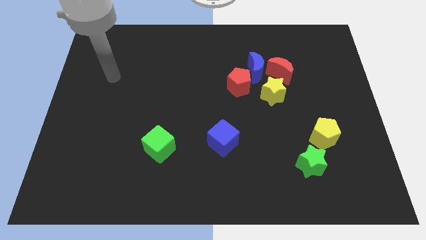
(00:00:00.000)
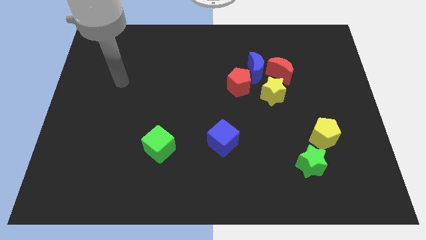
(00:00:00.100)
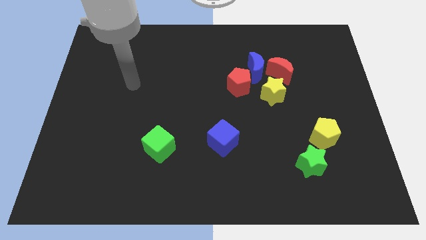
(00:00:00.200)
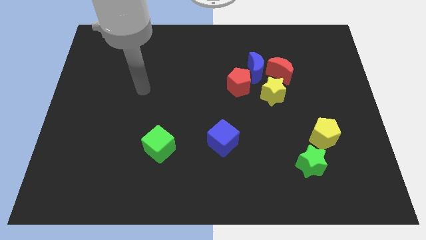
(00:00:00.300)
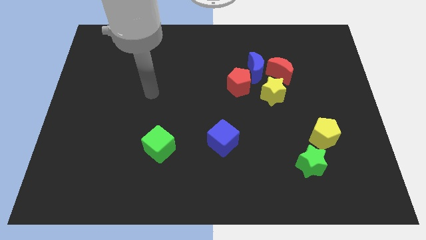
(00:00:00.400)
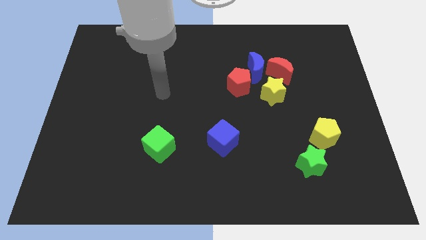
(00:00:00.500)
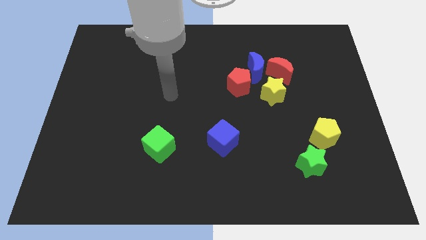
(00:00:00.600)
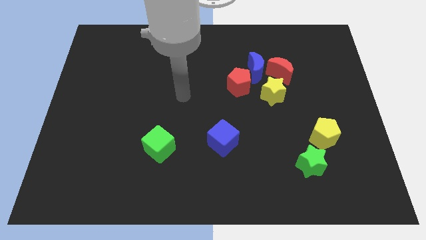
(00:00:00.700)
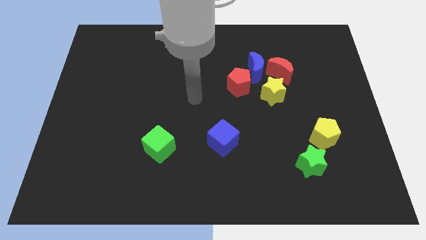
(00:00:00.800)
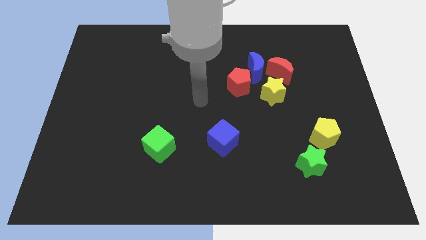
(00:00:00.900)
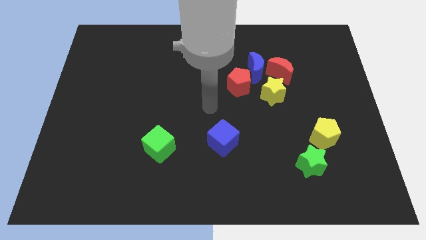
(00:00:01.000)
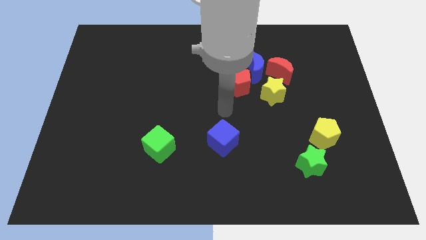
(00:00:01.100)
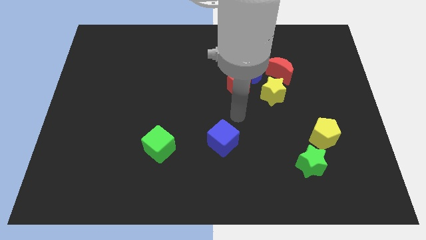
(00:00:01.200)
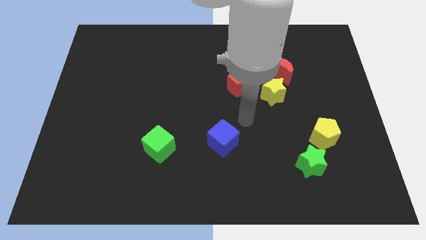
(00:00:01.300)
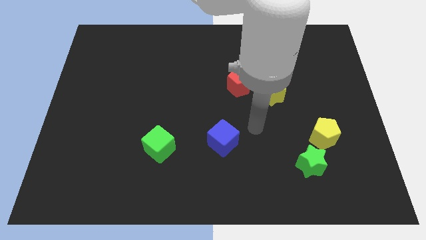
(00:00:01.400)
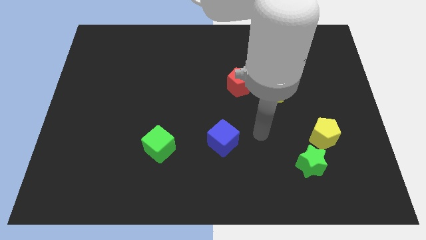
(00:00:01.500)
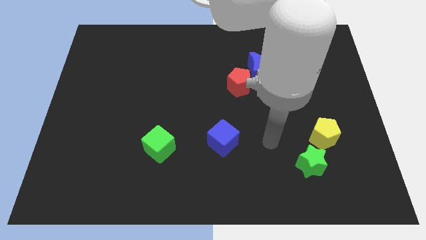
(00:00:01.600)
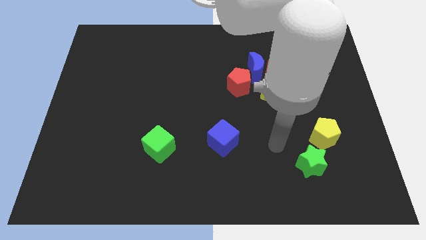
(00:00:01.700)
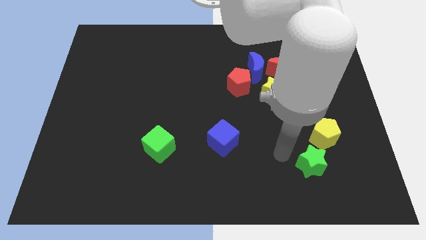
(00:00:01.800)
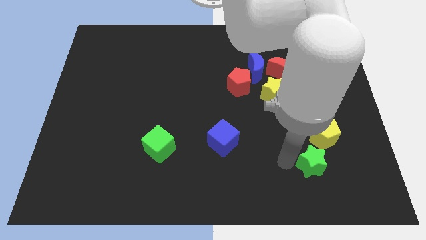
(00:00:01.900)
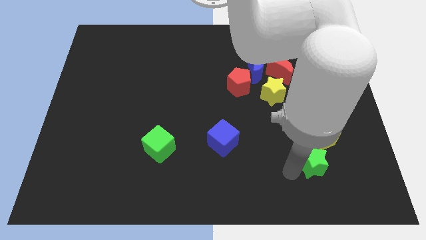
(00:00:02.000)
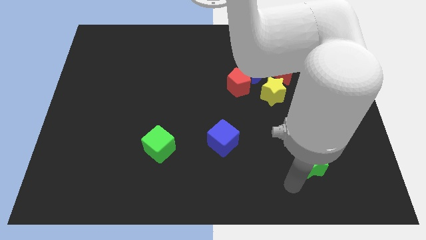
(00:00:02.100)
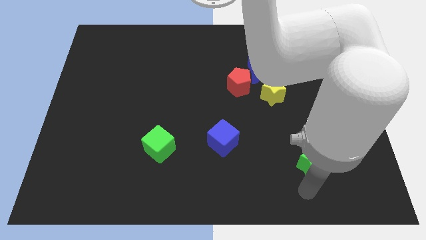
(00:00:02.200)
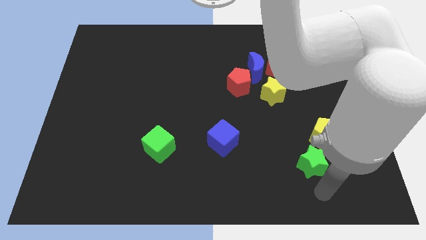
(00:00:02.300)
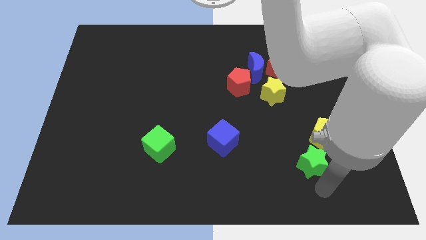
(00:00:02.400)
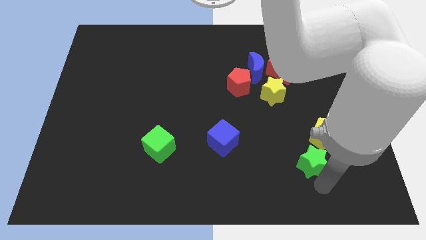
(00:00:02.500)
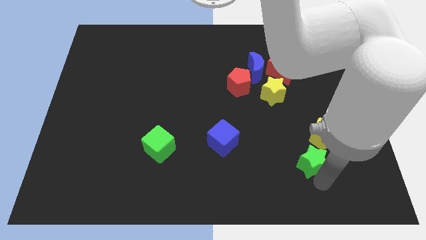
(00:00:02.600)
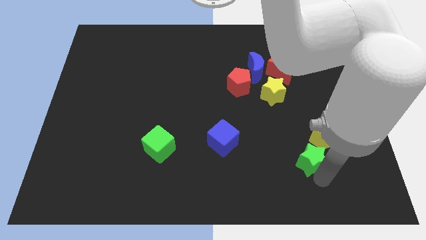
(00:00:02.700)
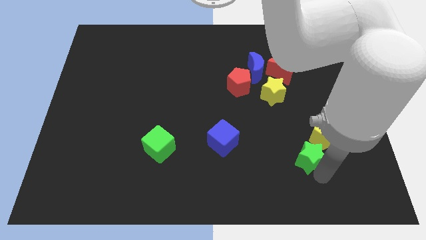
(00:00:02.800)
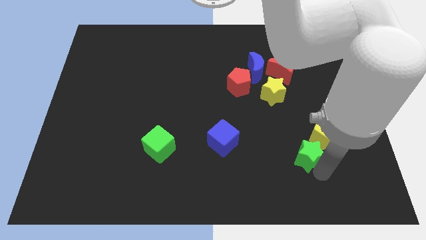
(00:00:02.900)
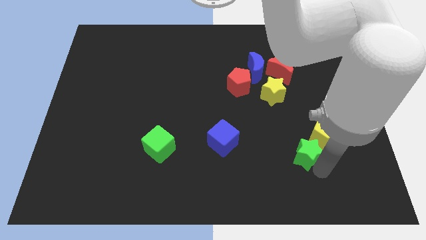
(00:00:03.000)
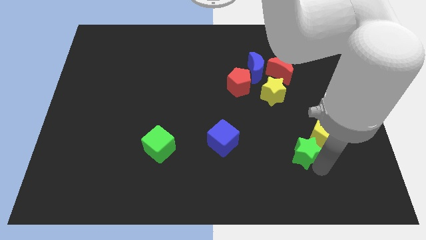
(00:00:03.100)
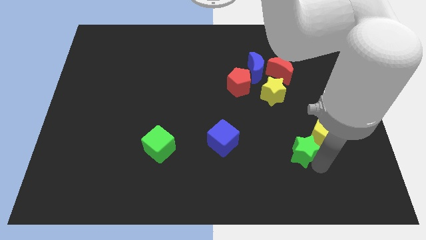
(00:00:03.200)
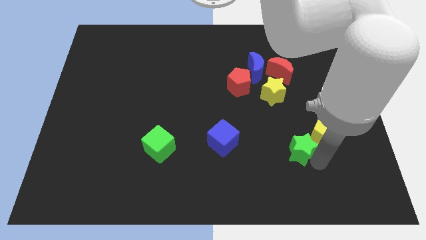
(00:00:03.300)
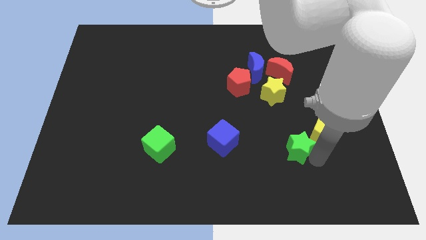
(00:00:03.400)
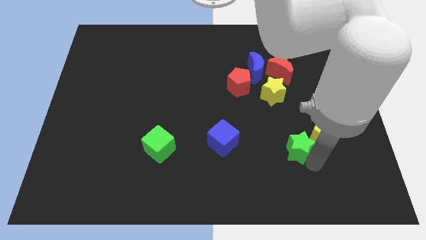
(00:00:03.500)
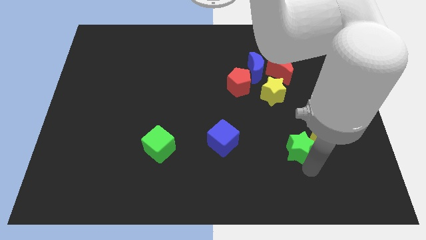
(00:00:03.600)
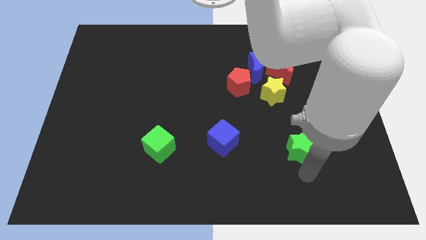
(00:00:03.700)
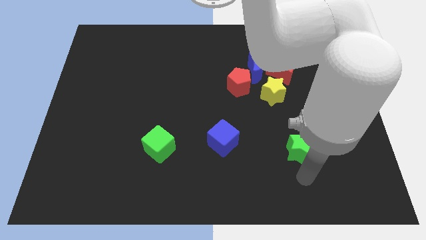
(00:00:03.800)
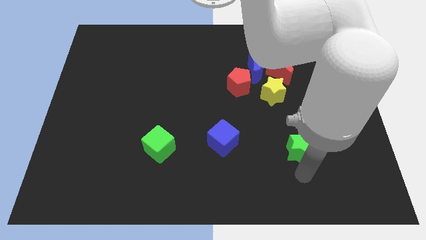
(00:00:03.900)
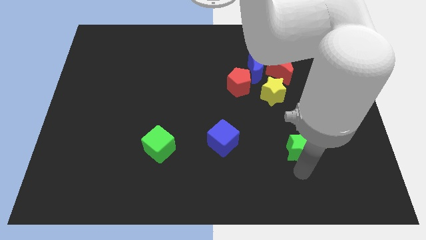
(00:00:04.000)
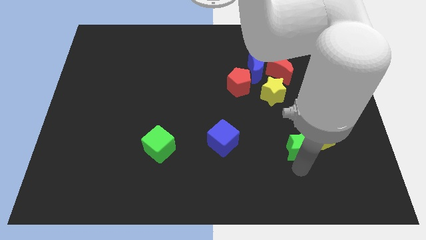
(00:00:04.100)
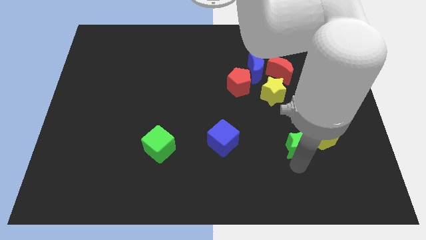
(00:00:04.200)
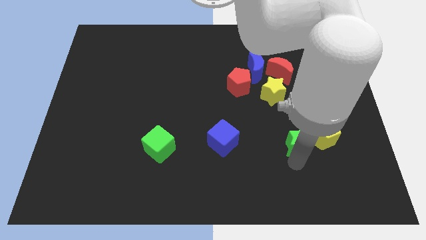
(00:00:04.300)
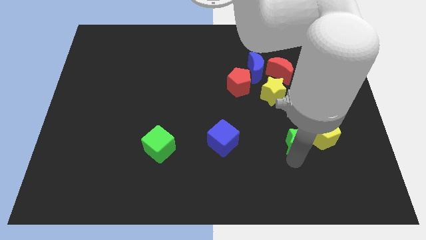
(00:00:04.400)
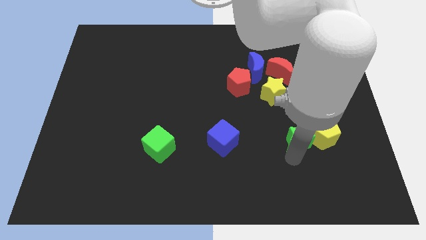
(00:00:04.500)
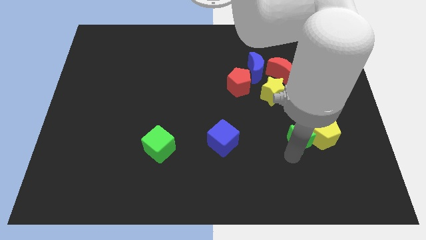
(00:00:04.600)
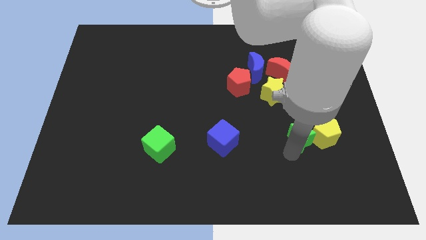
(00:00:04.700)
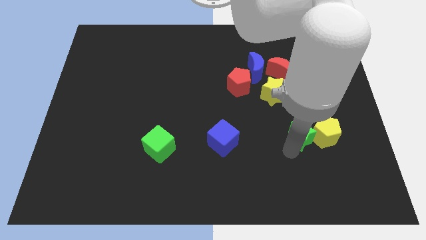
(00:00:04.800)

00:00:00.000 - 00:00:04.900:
move the green star somewhat upwards

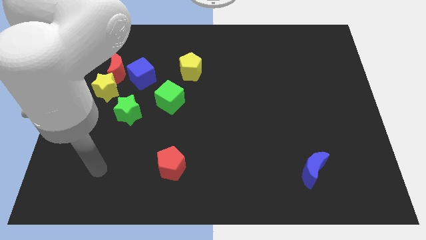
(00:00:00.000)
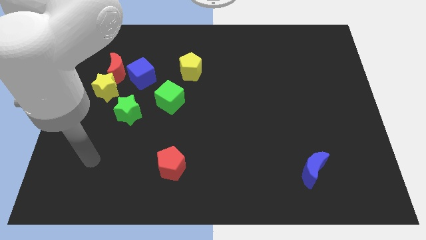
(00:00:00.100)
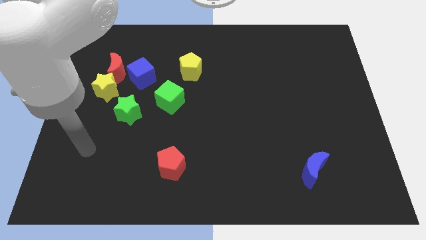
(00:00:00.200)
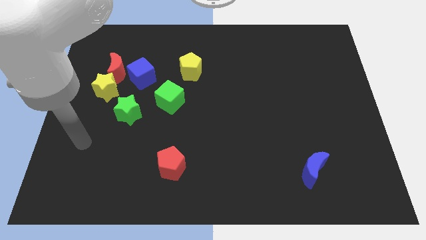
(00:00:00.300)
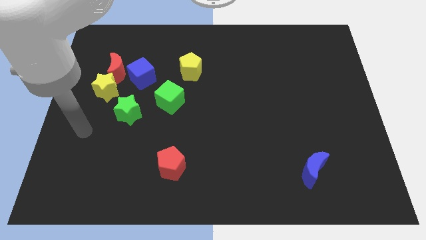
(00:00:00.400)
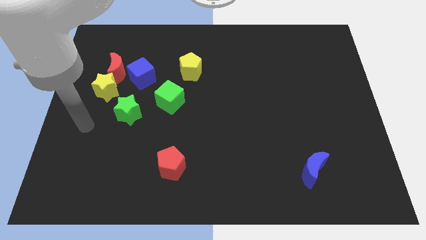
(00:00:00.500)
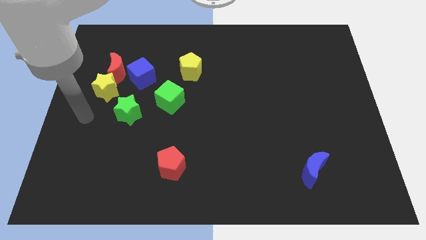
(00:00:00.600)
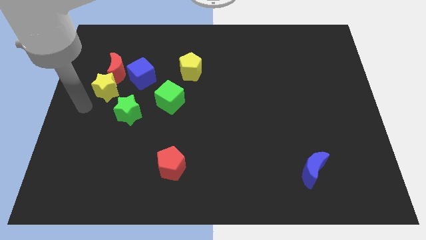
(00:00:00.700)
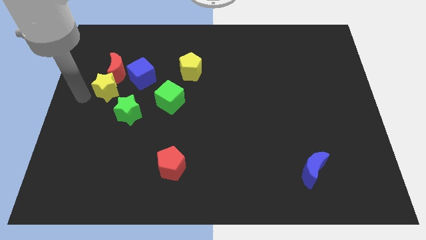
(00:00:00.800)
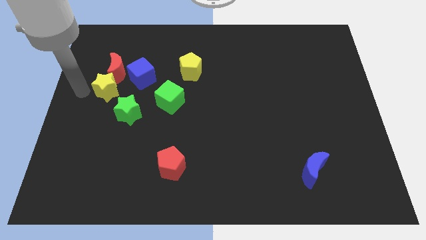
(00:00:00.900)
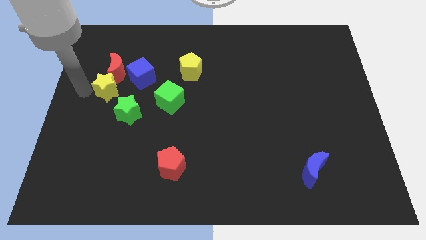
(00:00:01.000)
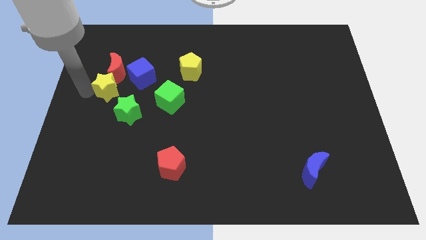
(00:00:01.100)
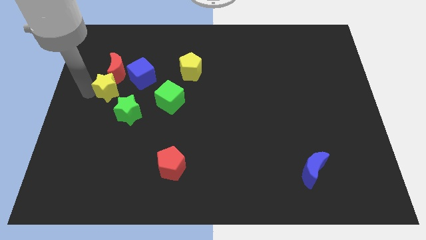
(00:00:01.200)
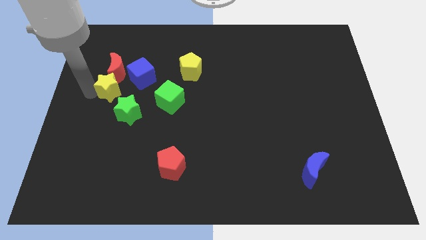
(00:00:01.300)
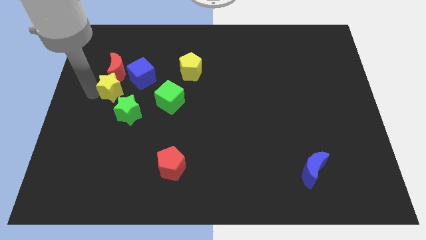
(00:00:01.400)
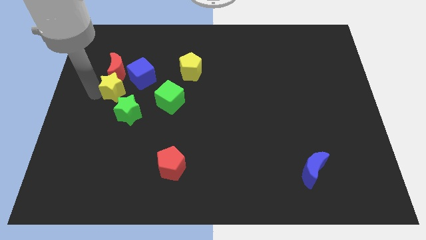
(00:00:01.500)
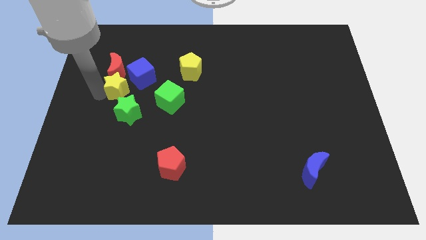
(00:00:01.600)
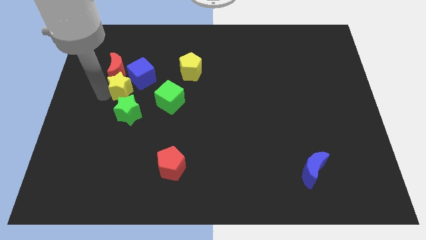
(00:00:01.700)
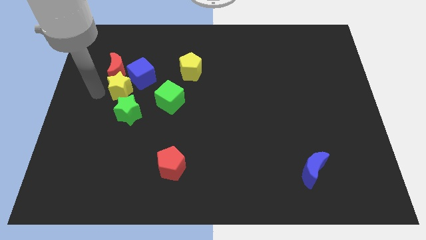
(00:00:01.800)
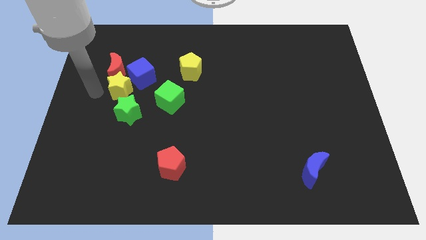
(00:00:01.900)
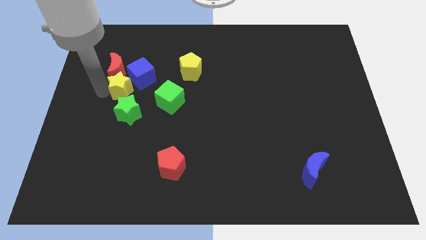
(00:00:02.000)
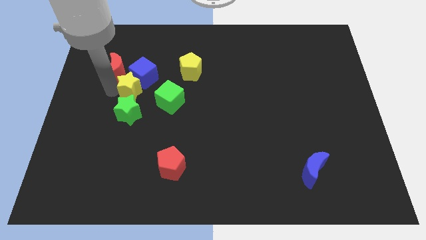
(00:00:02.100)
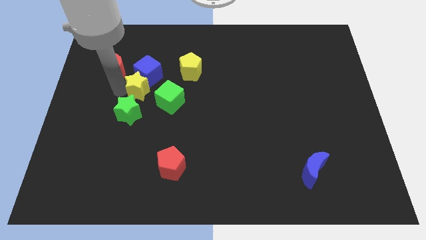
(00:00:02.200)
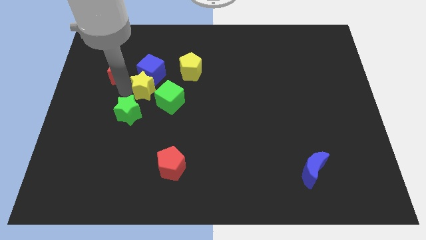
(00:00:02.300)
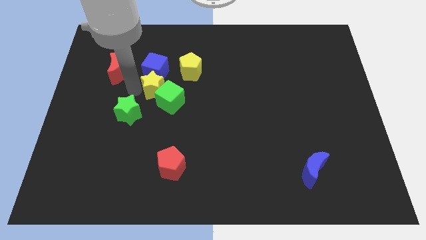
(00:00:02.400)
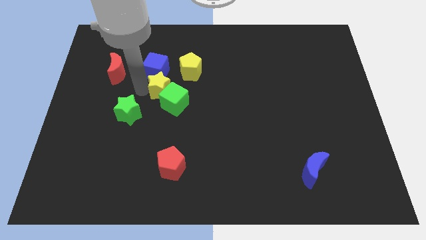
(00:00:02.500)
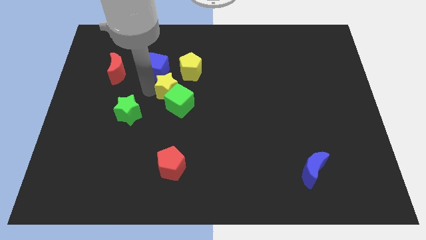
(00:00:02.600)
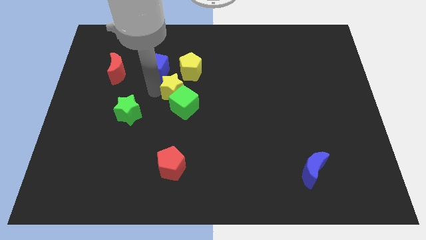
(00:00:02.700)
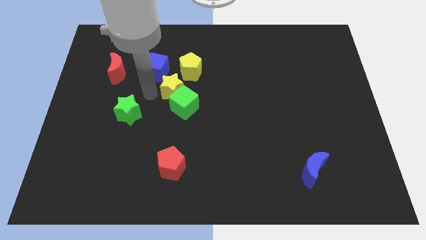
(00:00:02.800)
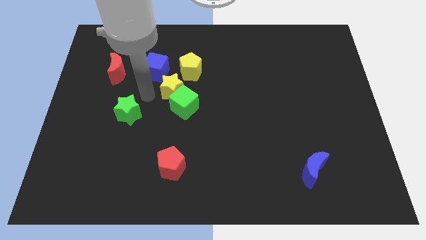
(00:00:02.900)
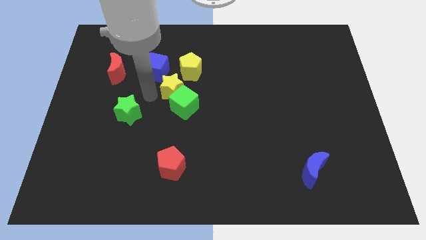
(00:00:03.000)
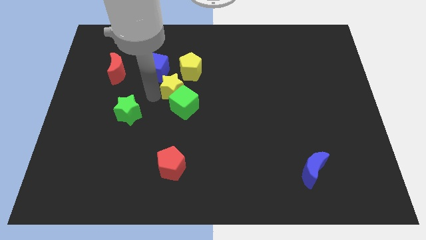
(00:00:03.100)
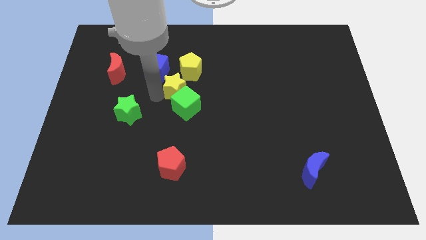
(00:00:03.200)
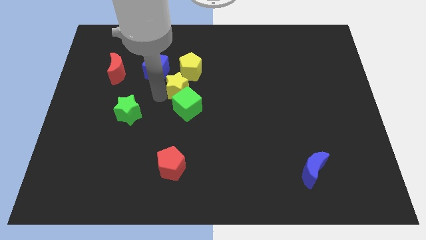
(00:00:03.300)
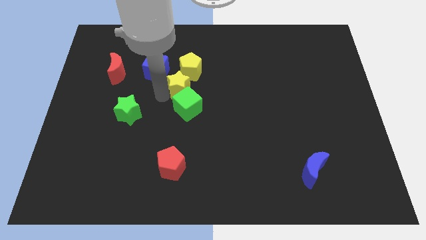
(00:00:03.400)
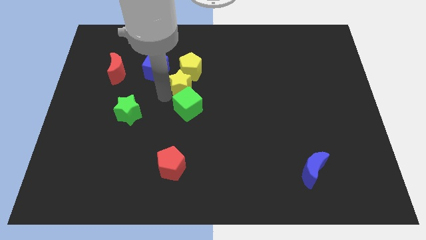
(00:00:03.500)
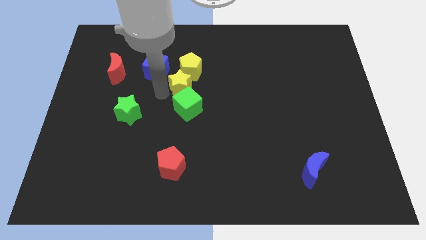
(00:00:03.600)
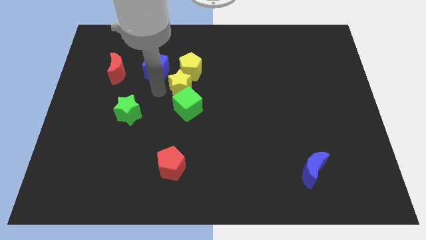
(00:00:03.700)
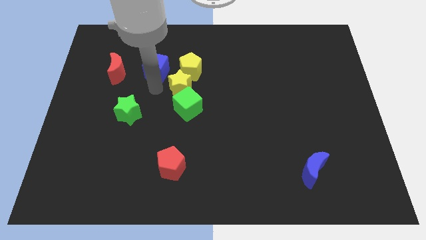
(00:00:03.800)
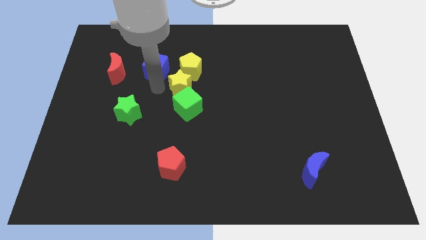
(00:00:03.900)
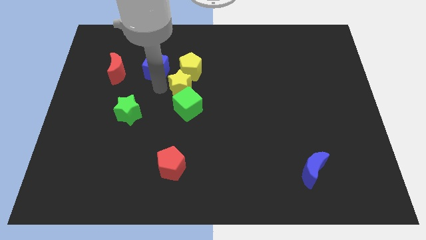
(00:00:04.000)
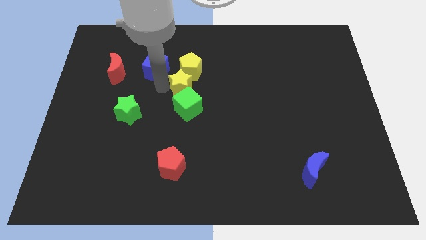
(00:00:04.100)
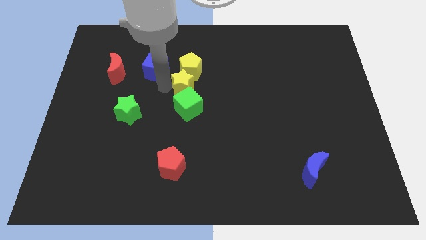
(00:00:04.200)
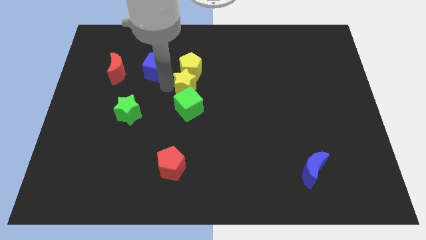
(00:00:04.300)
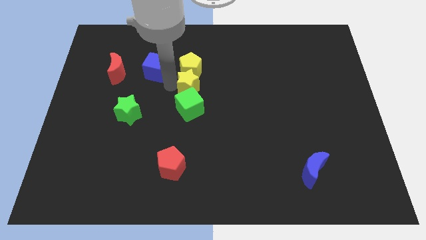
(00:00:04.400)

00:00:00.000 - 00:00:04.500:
move the yellow star to the right
